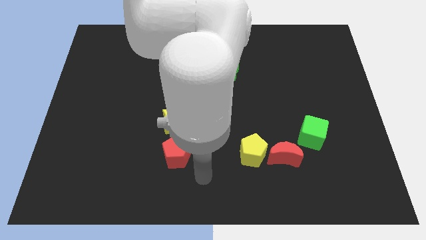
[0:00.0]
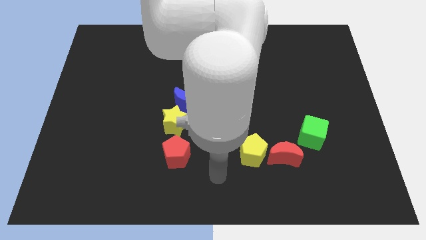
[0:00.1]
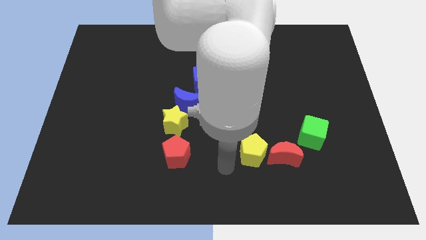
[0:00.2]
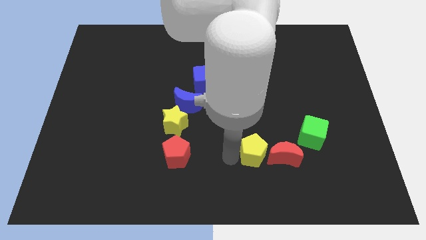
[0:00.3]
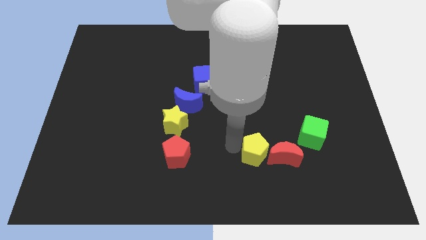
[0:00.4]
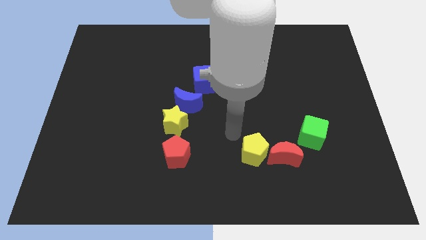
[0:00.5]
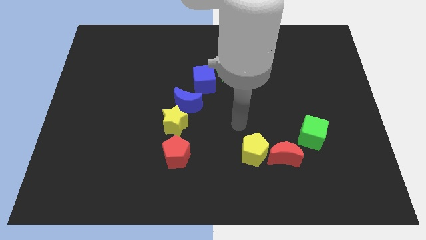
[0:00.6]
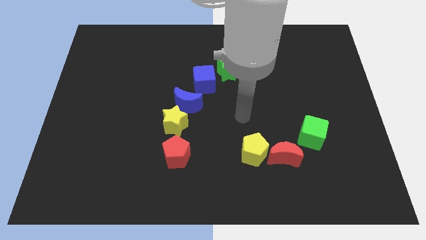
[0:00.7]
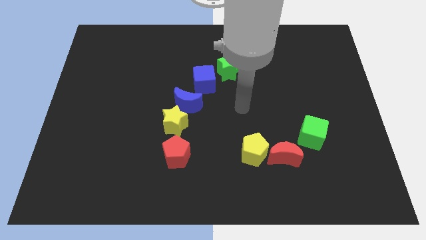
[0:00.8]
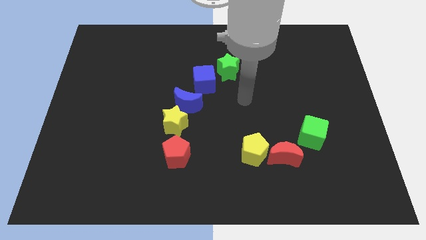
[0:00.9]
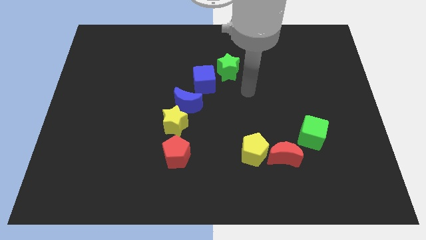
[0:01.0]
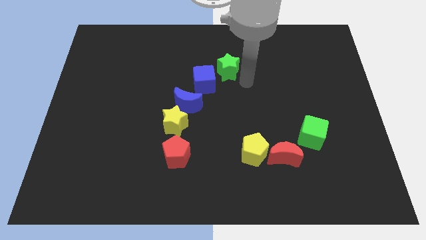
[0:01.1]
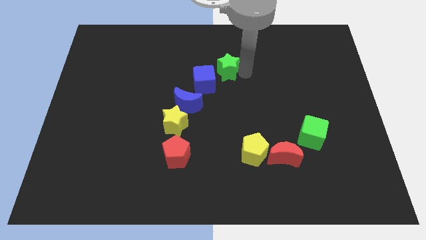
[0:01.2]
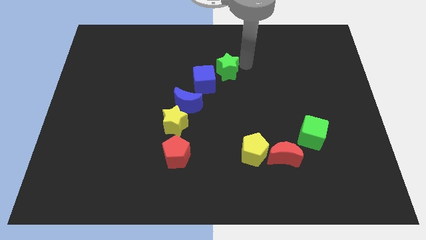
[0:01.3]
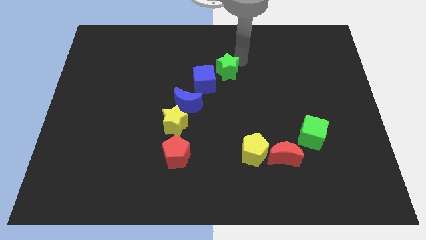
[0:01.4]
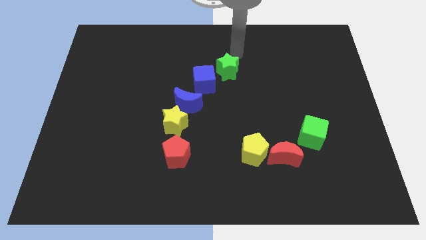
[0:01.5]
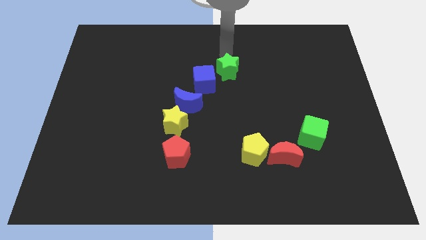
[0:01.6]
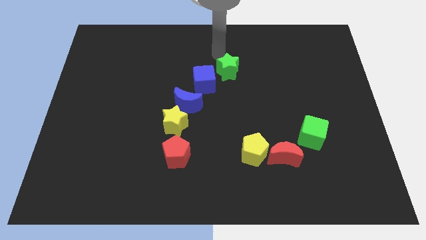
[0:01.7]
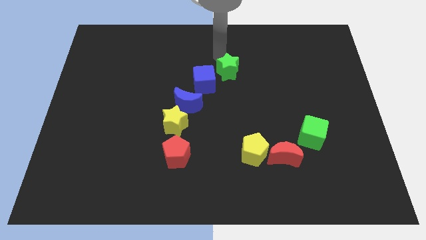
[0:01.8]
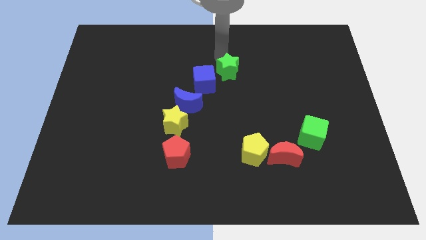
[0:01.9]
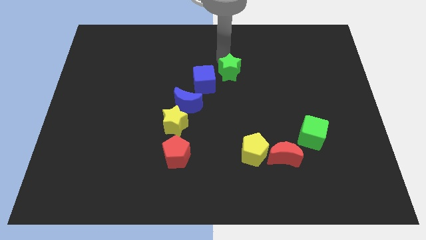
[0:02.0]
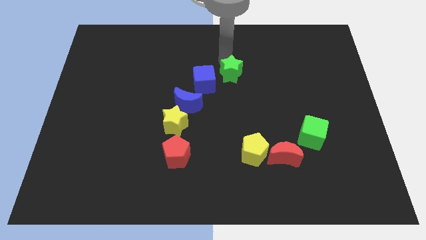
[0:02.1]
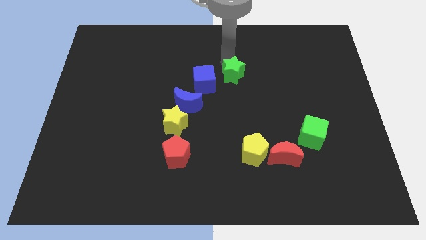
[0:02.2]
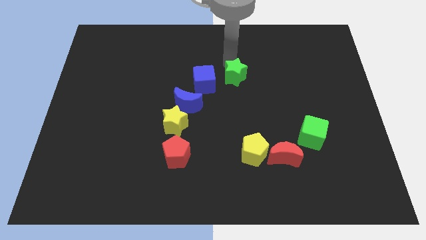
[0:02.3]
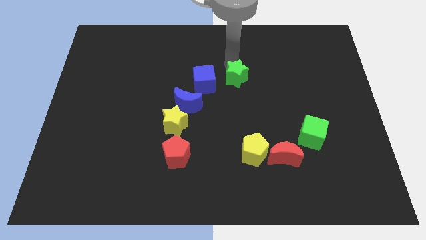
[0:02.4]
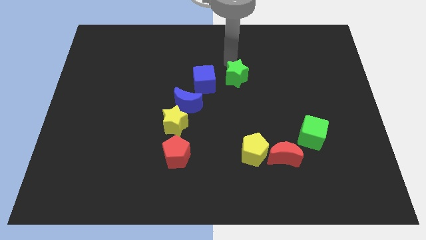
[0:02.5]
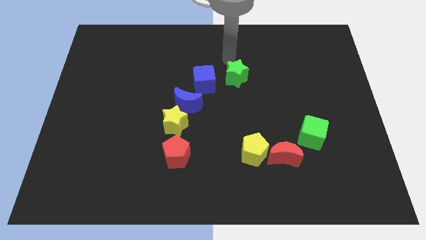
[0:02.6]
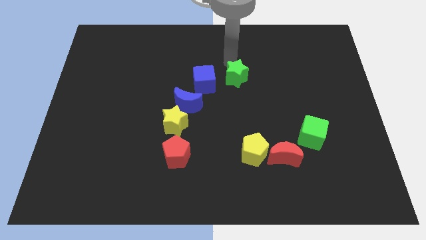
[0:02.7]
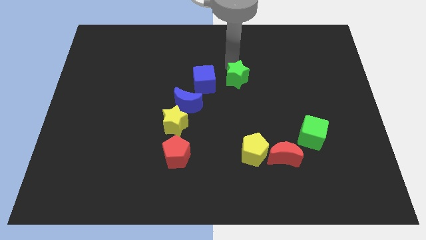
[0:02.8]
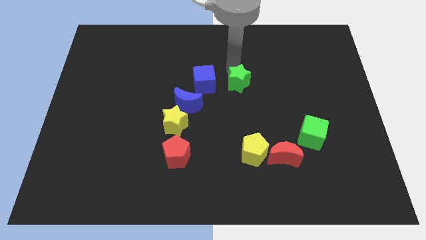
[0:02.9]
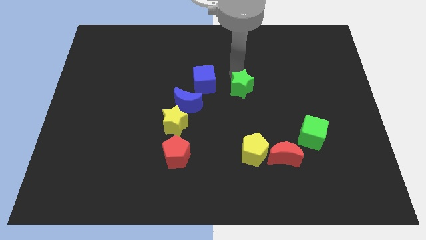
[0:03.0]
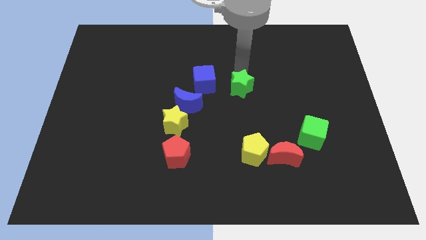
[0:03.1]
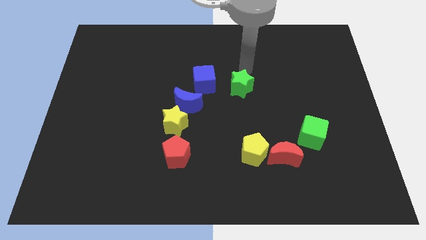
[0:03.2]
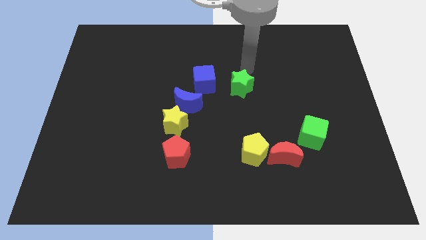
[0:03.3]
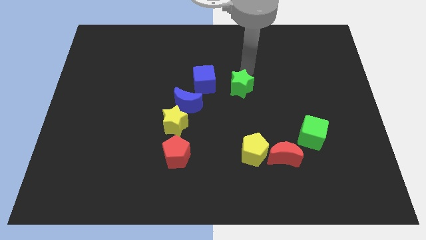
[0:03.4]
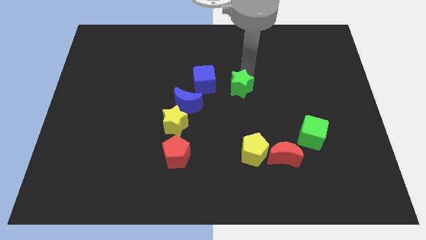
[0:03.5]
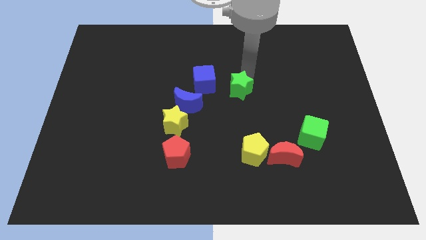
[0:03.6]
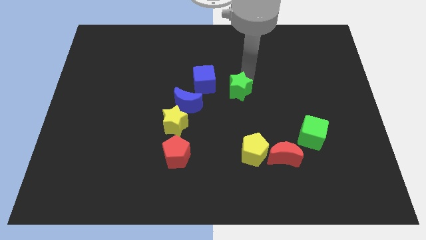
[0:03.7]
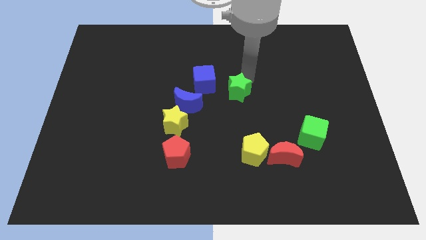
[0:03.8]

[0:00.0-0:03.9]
slide the green star somewhat down

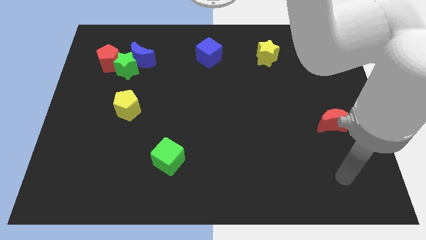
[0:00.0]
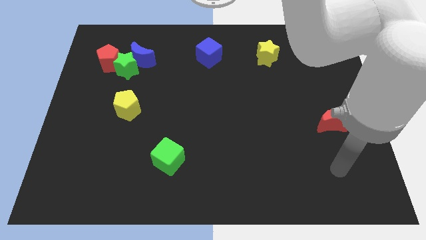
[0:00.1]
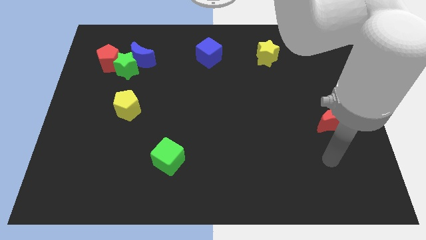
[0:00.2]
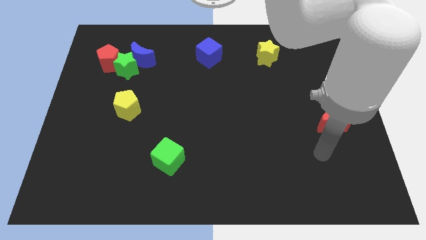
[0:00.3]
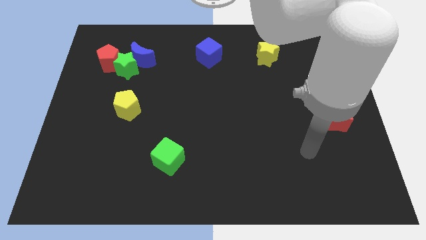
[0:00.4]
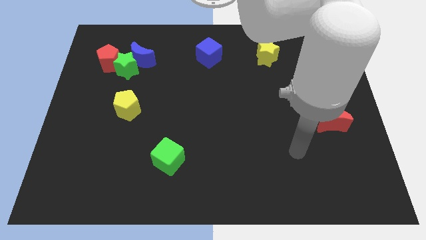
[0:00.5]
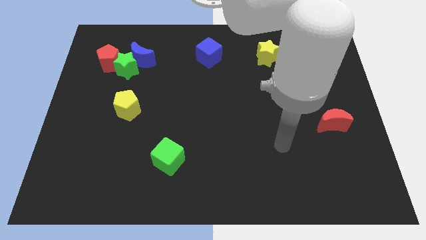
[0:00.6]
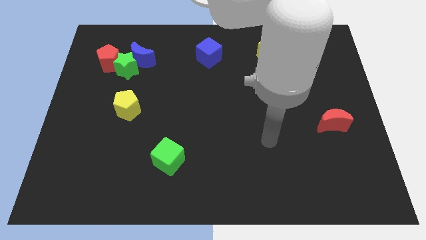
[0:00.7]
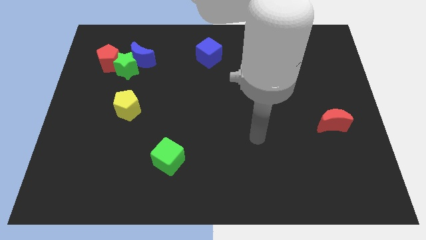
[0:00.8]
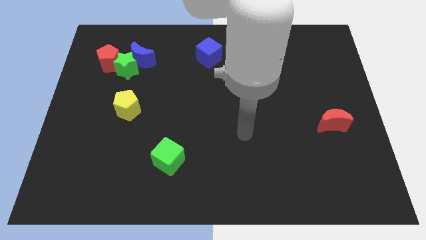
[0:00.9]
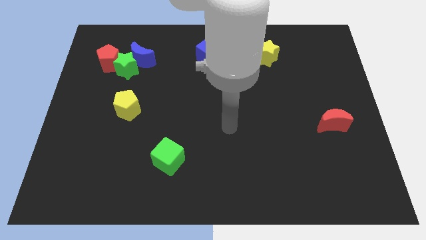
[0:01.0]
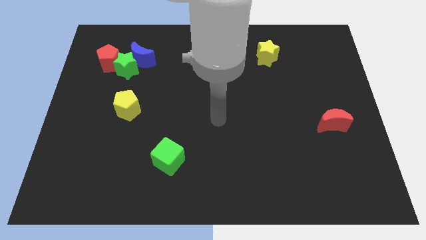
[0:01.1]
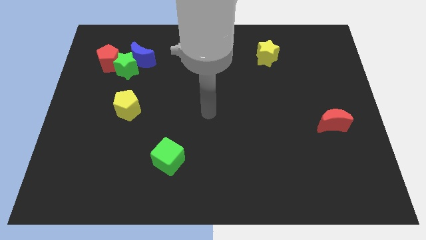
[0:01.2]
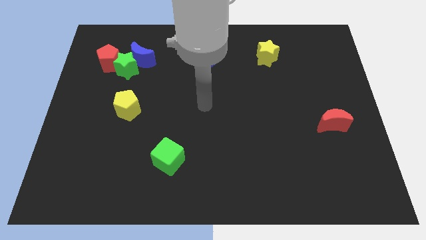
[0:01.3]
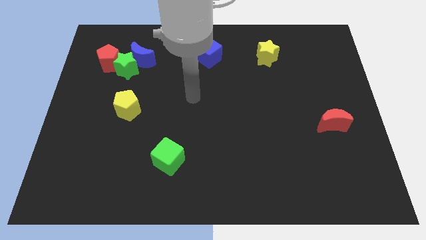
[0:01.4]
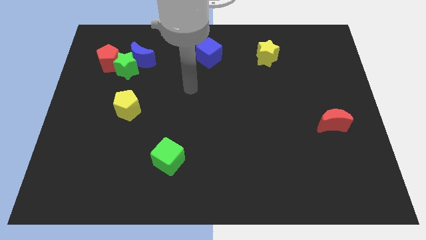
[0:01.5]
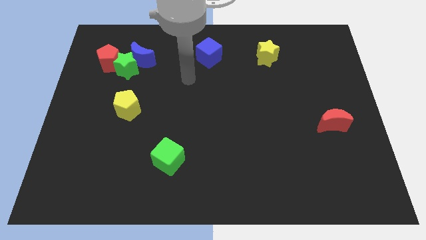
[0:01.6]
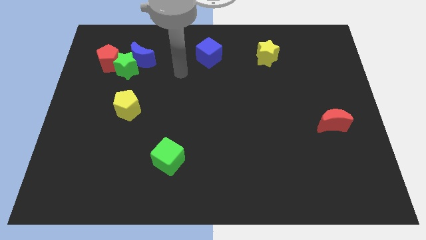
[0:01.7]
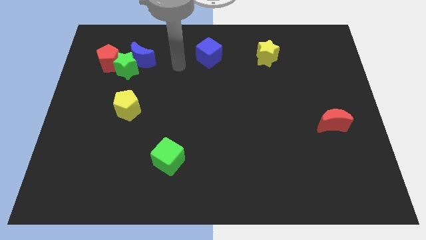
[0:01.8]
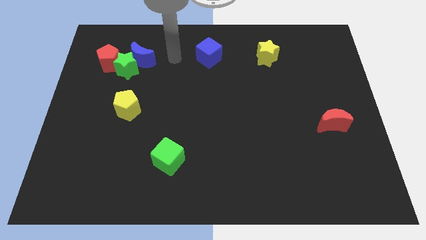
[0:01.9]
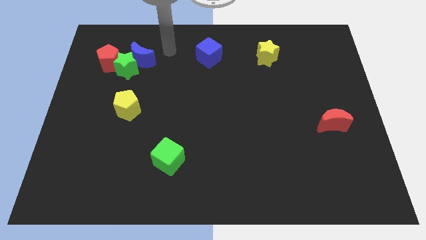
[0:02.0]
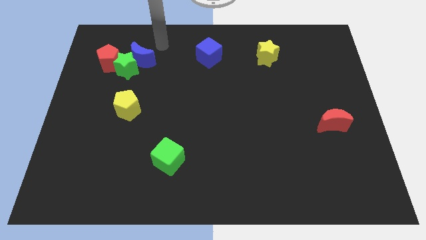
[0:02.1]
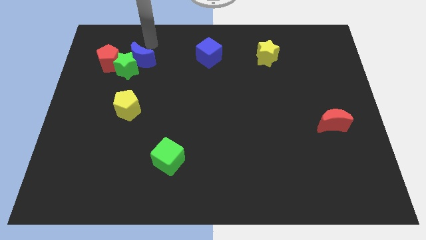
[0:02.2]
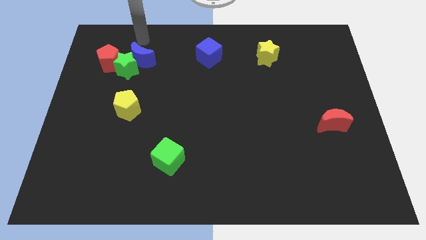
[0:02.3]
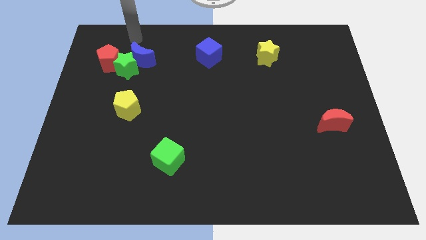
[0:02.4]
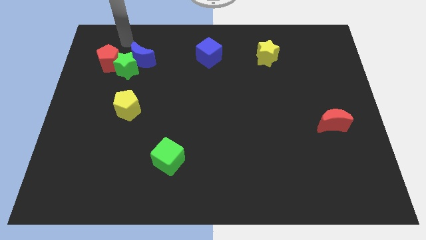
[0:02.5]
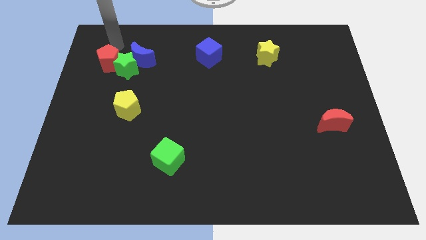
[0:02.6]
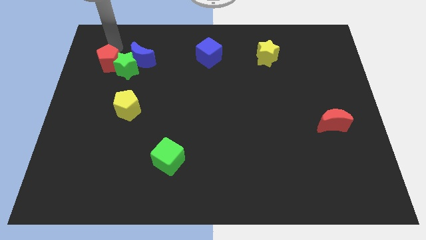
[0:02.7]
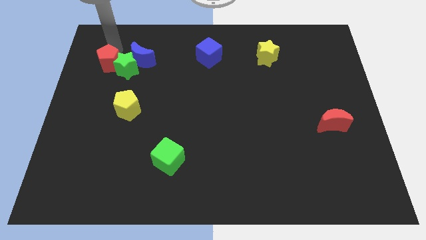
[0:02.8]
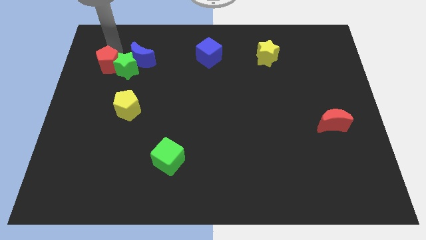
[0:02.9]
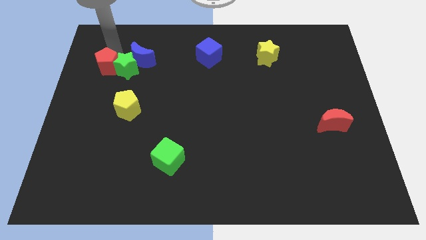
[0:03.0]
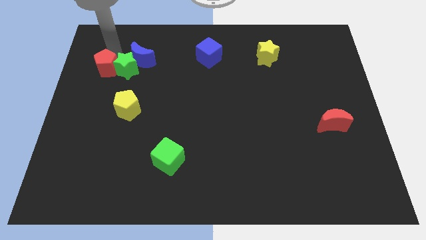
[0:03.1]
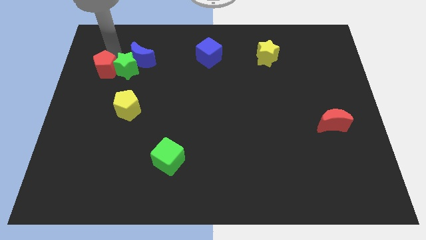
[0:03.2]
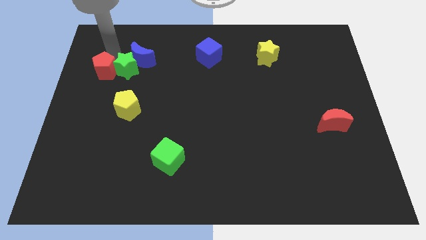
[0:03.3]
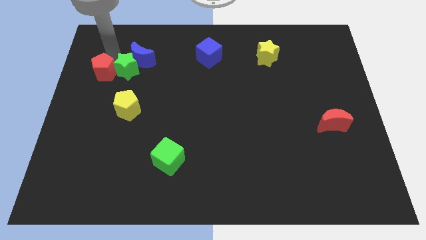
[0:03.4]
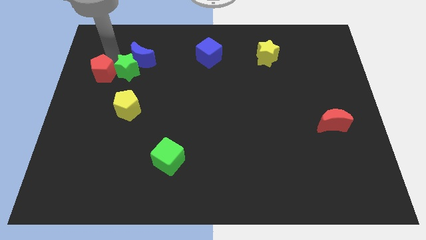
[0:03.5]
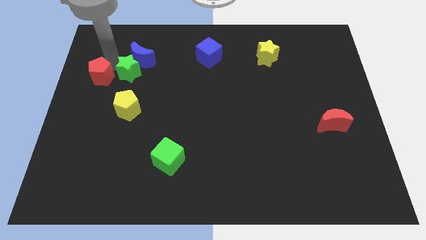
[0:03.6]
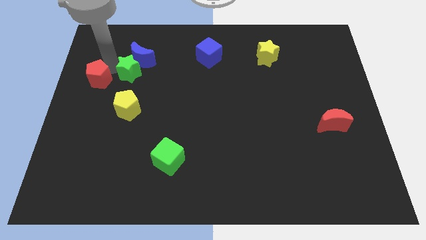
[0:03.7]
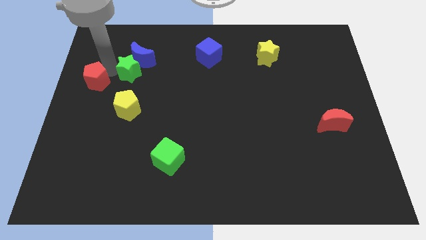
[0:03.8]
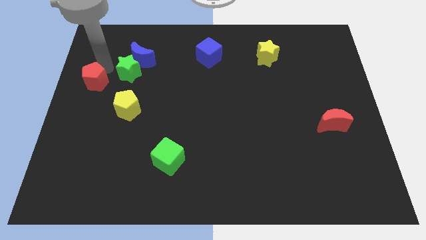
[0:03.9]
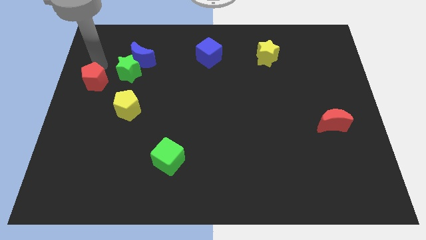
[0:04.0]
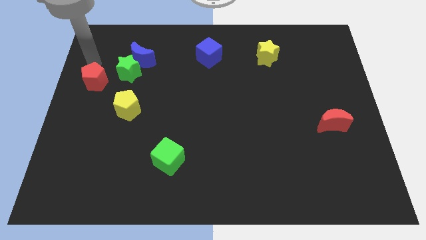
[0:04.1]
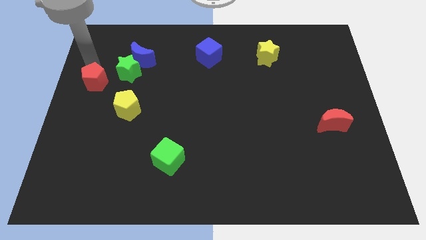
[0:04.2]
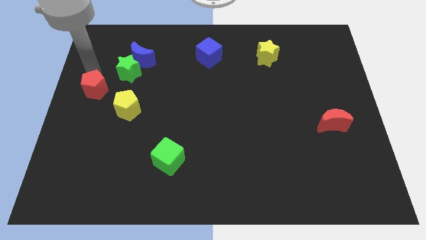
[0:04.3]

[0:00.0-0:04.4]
push the red pentagon downwards slightly
